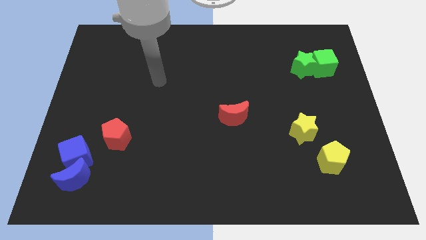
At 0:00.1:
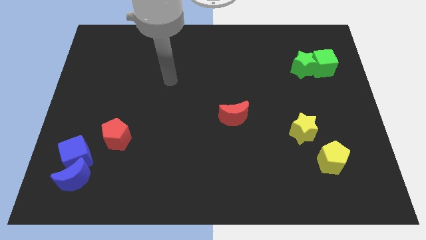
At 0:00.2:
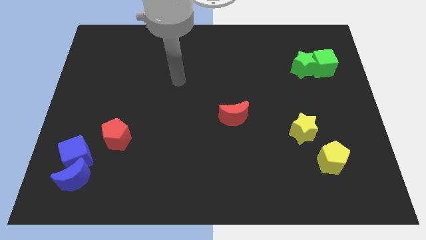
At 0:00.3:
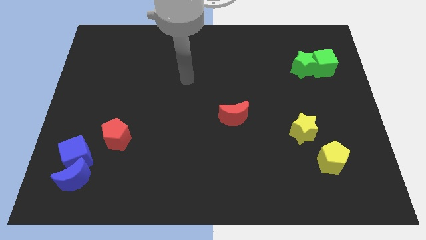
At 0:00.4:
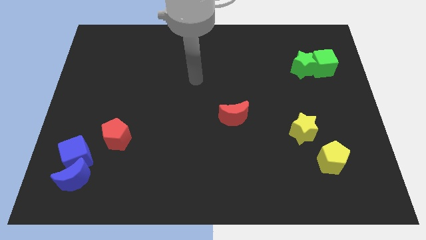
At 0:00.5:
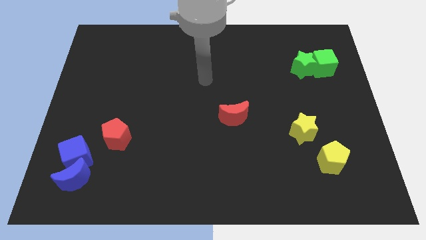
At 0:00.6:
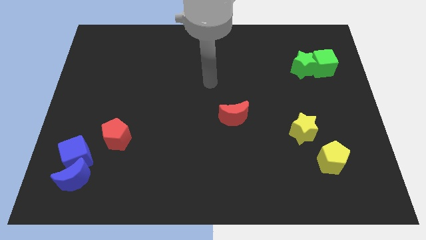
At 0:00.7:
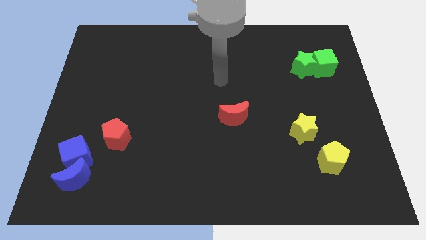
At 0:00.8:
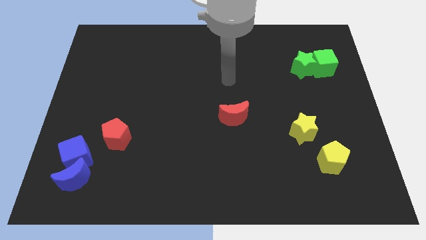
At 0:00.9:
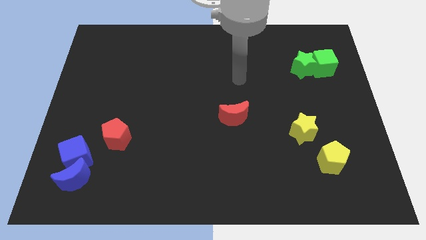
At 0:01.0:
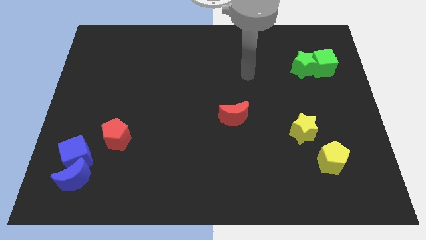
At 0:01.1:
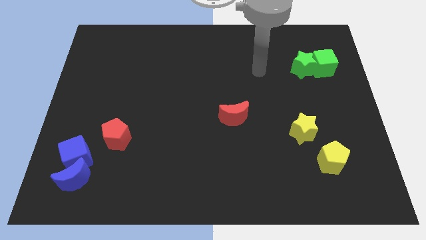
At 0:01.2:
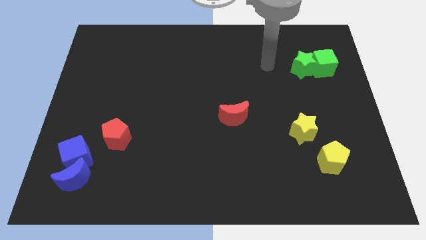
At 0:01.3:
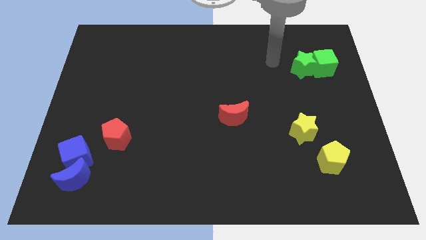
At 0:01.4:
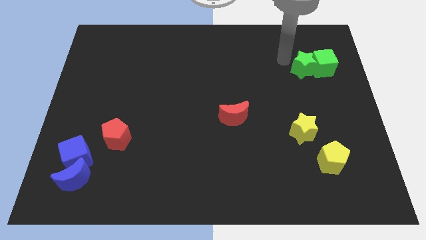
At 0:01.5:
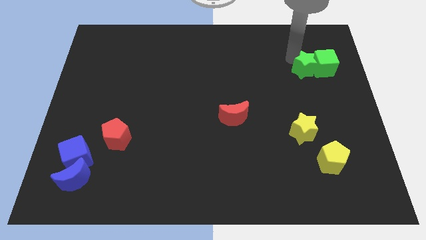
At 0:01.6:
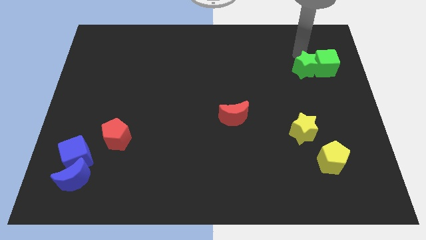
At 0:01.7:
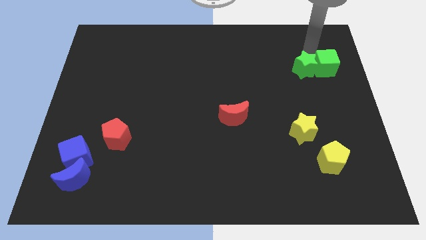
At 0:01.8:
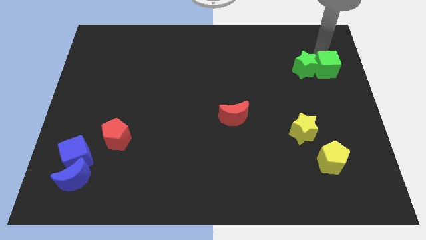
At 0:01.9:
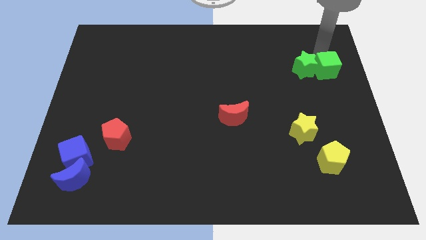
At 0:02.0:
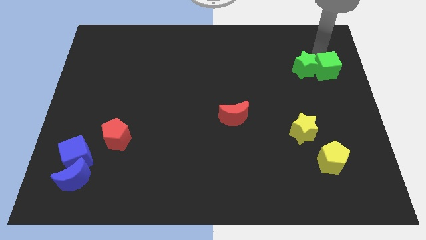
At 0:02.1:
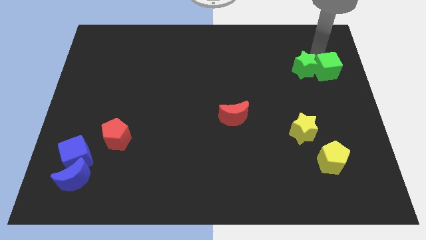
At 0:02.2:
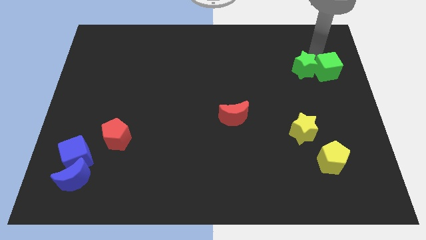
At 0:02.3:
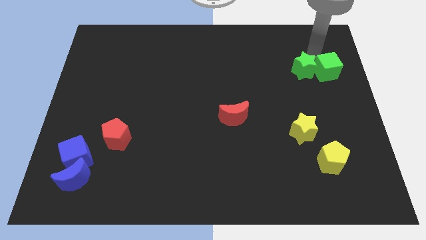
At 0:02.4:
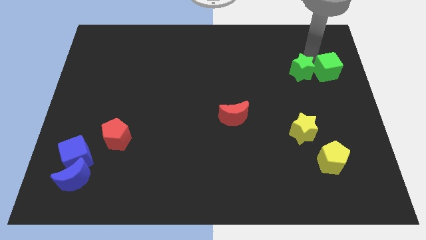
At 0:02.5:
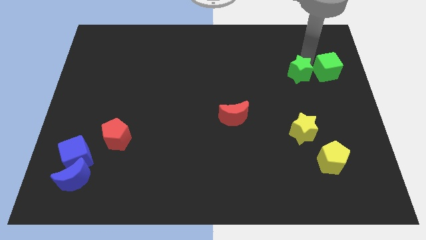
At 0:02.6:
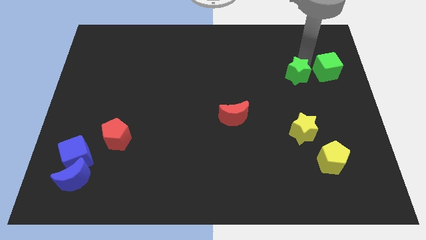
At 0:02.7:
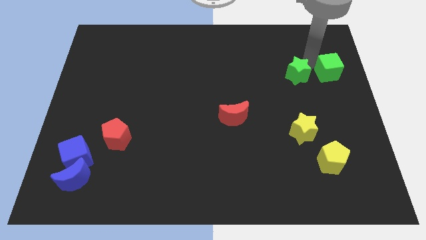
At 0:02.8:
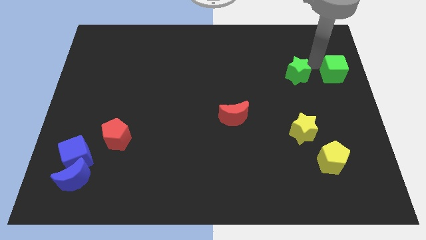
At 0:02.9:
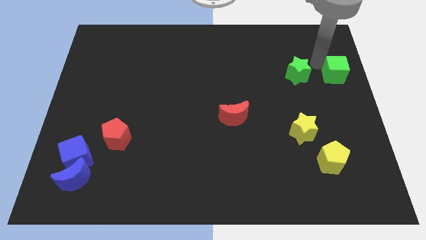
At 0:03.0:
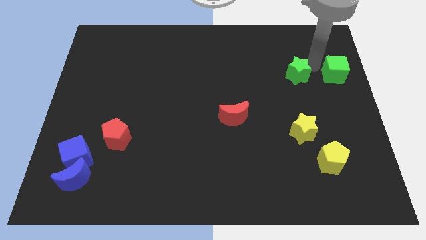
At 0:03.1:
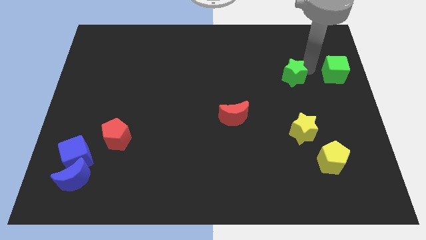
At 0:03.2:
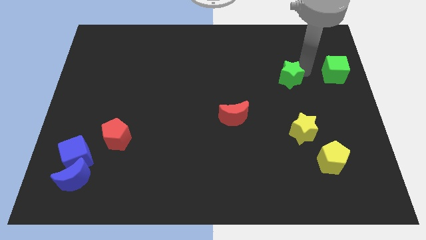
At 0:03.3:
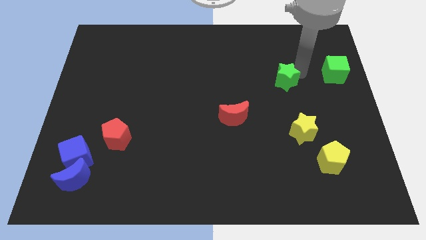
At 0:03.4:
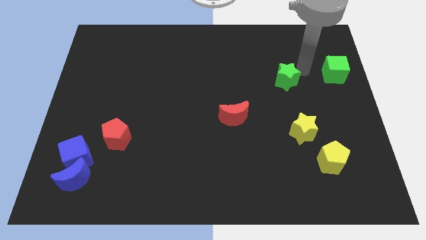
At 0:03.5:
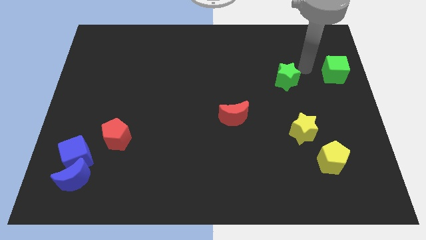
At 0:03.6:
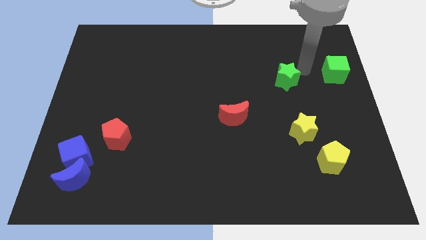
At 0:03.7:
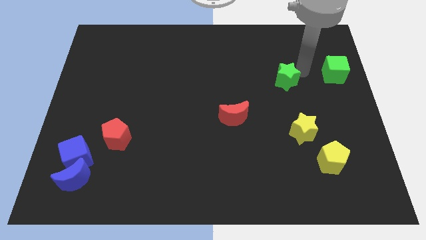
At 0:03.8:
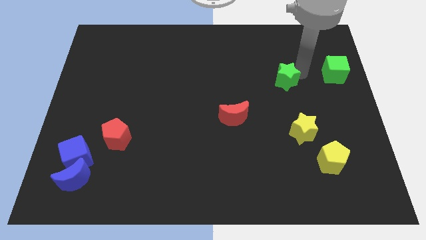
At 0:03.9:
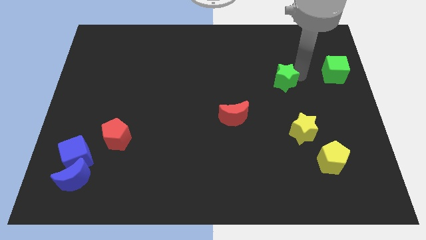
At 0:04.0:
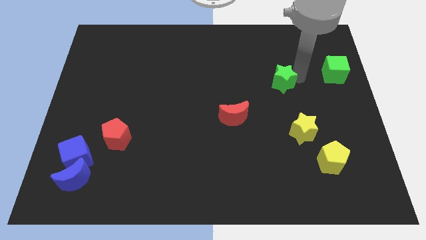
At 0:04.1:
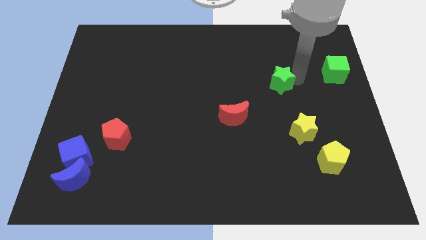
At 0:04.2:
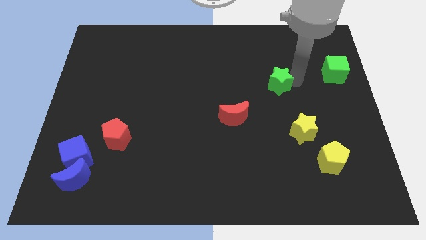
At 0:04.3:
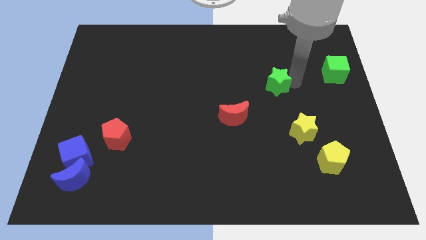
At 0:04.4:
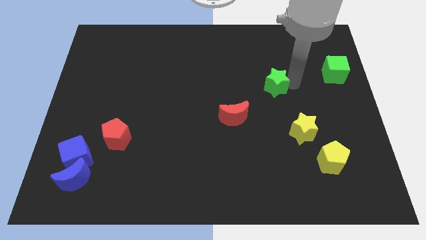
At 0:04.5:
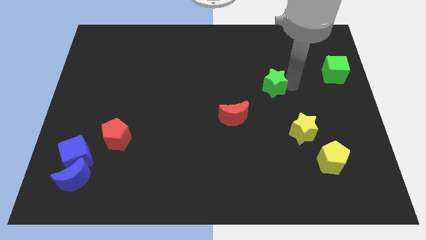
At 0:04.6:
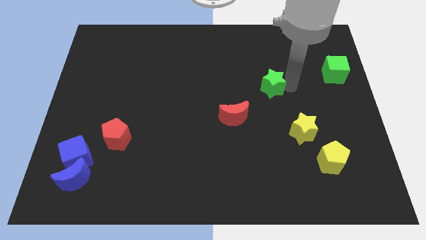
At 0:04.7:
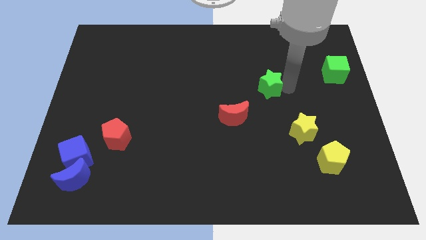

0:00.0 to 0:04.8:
slide the green star diagonally up and to the right of the red moon

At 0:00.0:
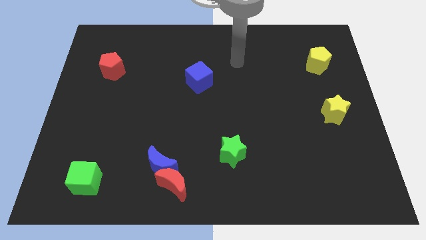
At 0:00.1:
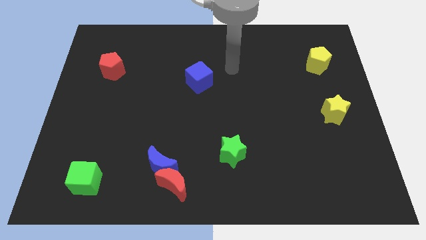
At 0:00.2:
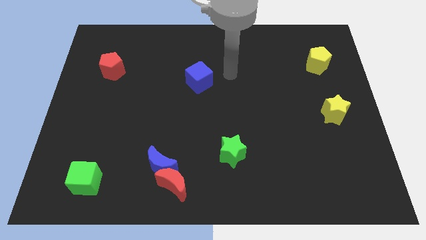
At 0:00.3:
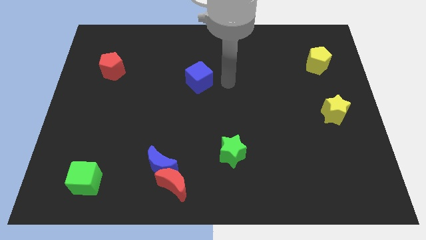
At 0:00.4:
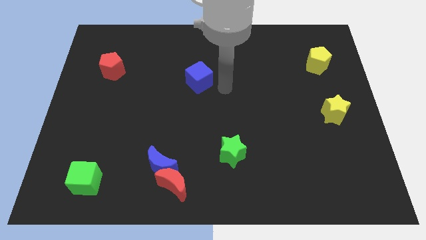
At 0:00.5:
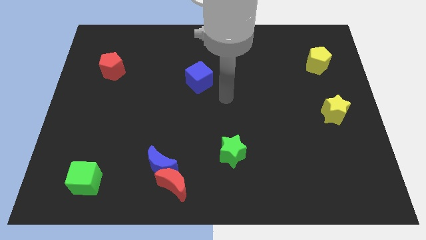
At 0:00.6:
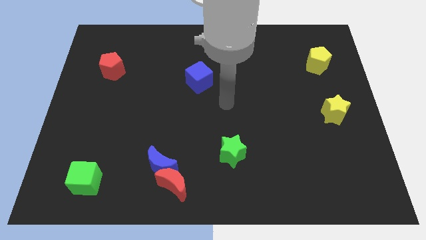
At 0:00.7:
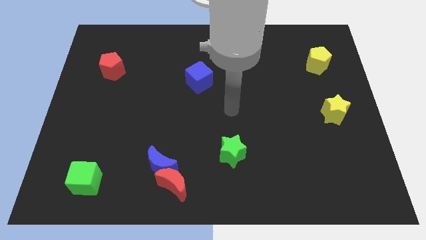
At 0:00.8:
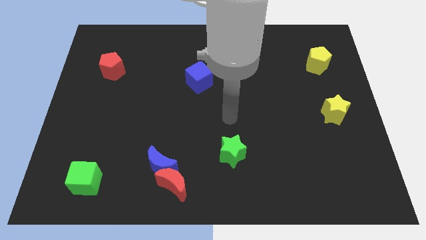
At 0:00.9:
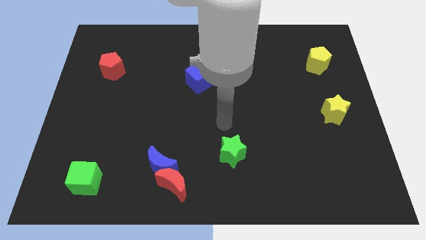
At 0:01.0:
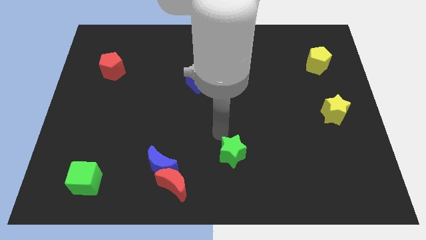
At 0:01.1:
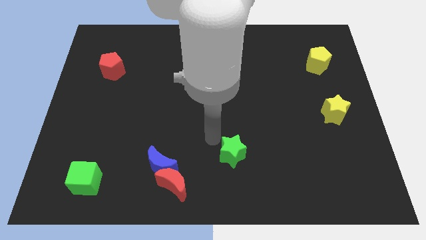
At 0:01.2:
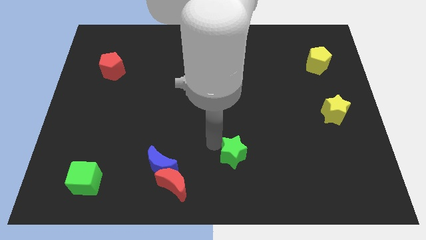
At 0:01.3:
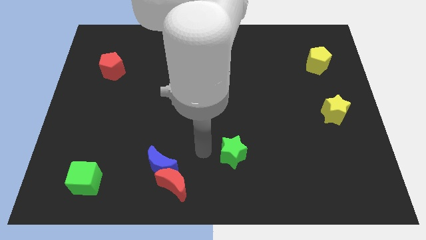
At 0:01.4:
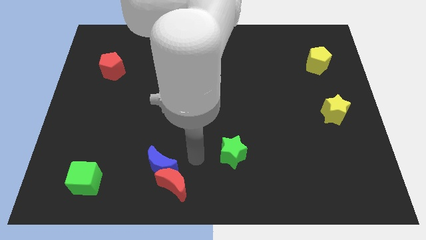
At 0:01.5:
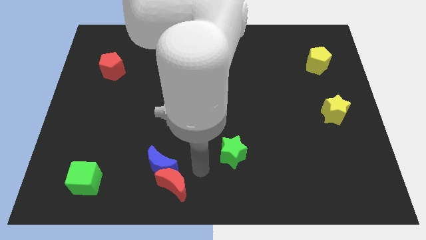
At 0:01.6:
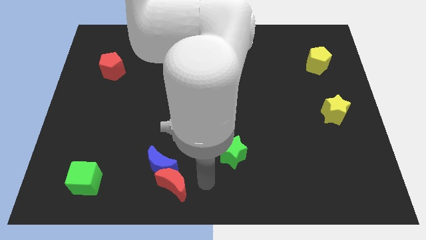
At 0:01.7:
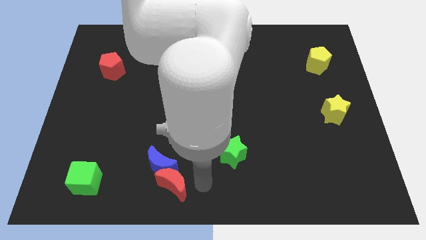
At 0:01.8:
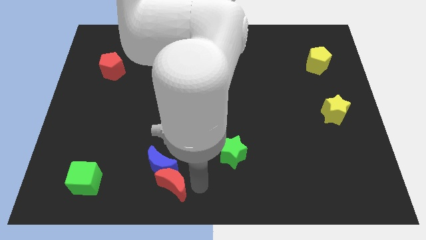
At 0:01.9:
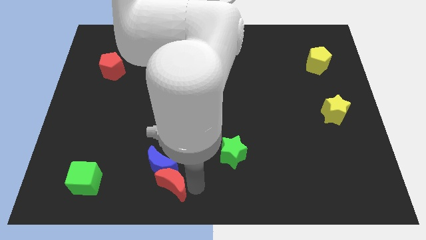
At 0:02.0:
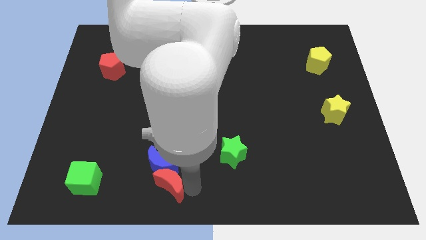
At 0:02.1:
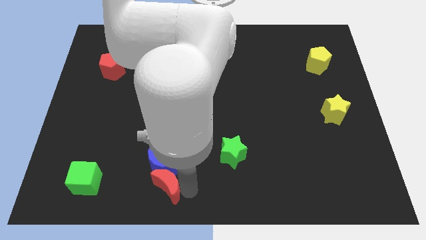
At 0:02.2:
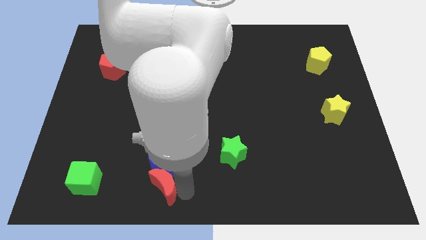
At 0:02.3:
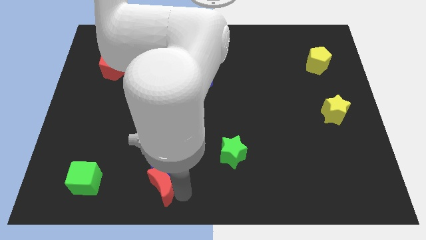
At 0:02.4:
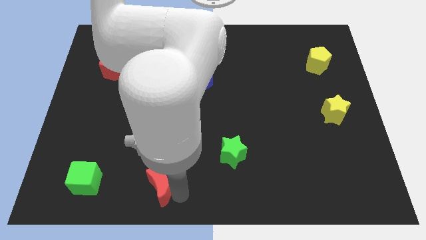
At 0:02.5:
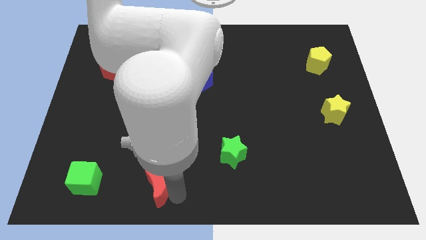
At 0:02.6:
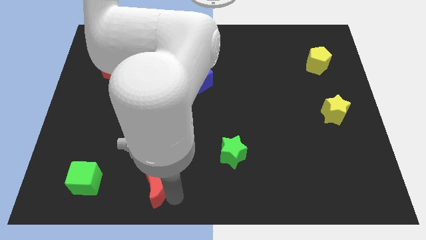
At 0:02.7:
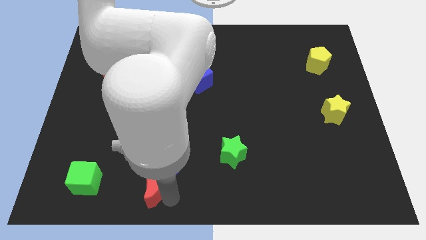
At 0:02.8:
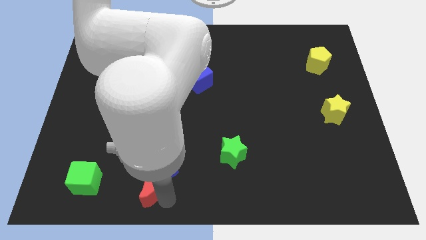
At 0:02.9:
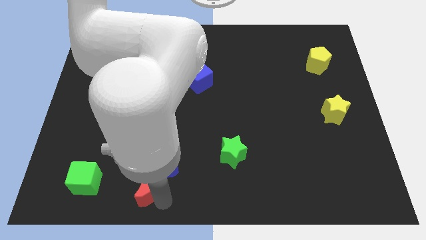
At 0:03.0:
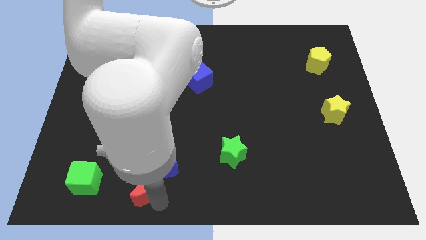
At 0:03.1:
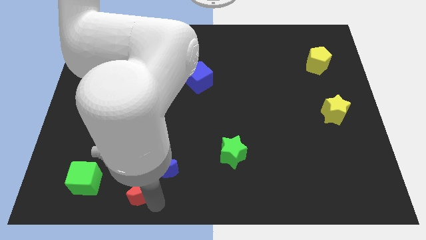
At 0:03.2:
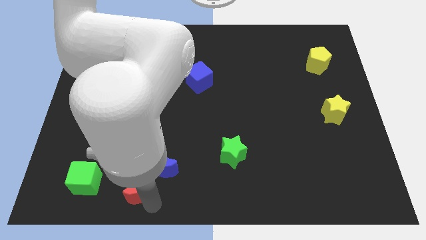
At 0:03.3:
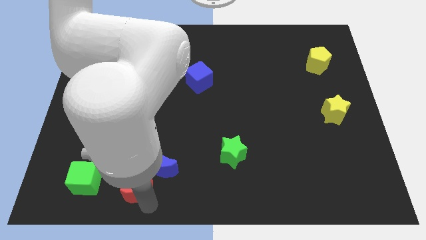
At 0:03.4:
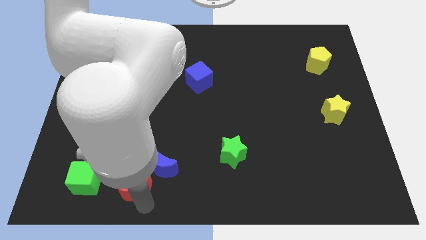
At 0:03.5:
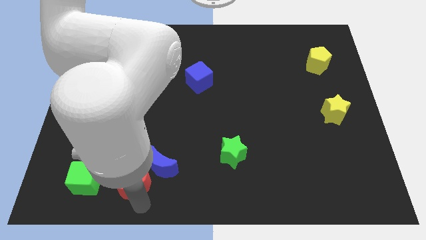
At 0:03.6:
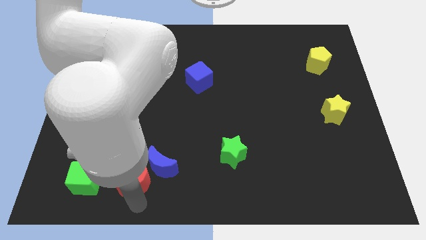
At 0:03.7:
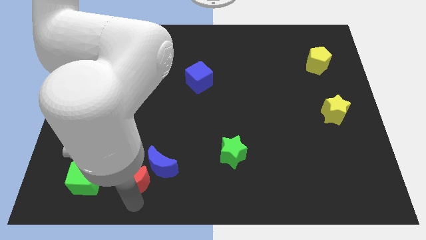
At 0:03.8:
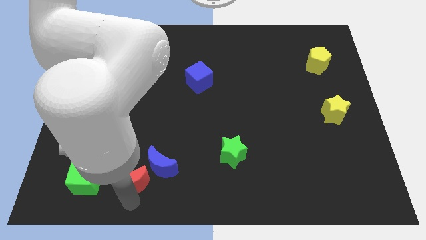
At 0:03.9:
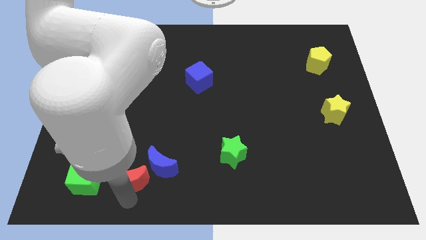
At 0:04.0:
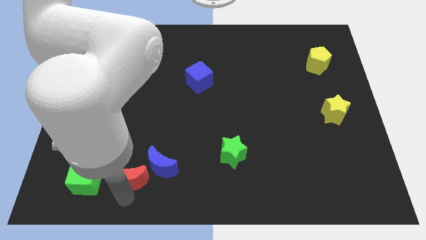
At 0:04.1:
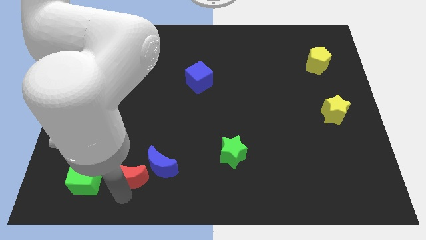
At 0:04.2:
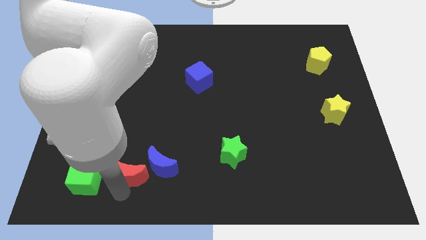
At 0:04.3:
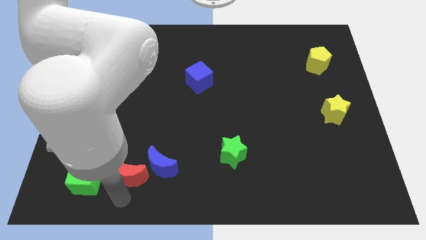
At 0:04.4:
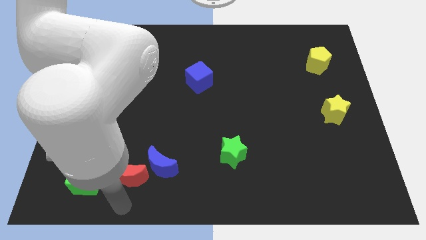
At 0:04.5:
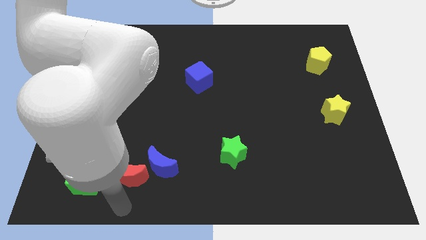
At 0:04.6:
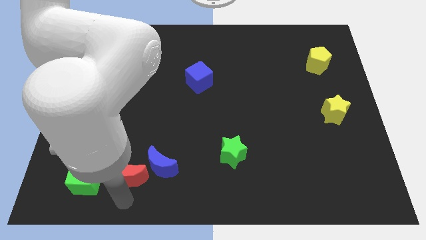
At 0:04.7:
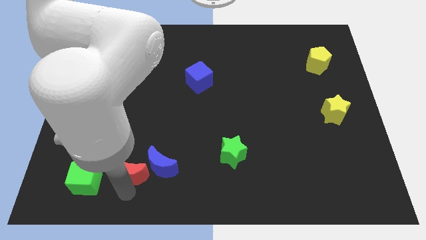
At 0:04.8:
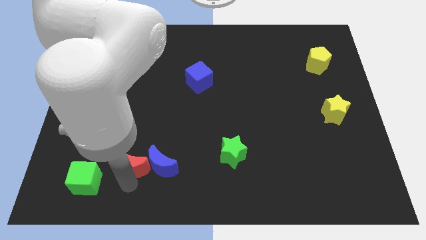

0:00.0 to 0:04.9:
push the red moon diagonally up and to the left of the blue moon
